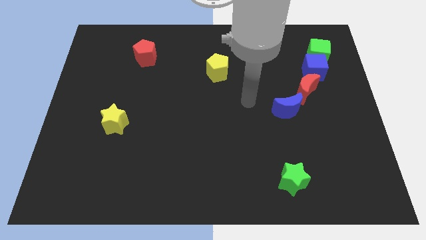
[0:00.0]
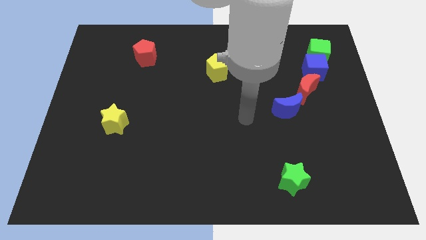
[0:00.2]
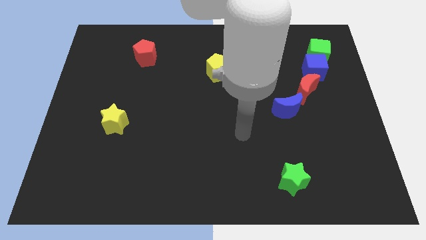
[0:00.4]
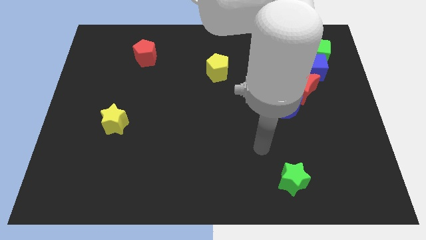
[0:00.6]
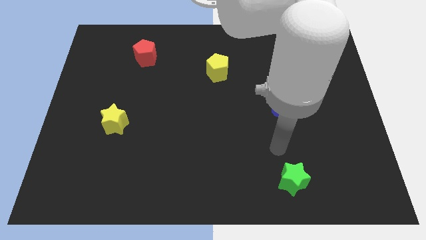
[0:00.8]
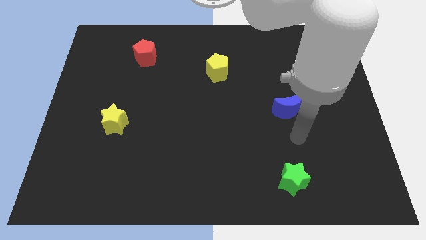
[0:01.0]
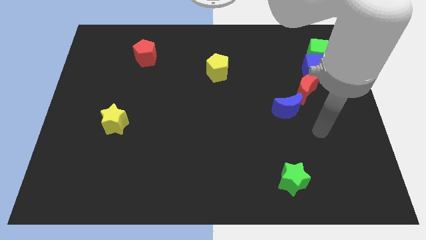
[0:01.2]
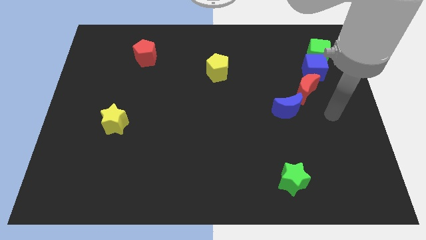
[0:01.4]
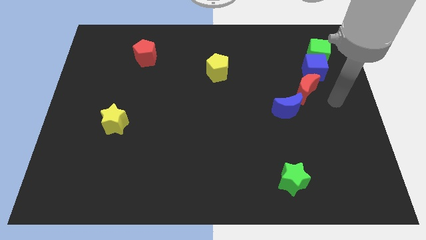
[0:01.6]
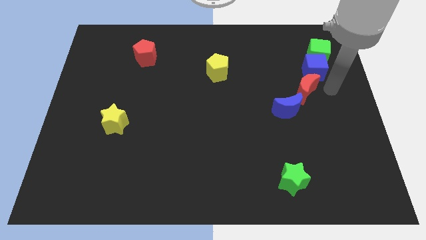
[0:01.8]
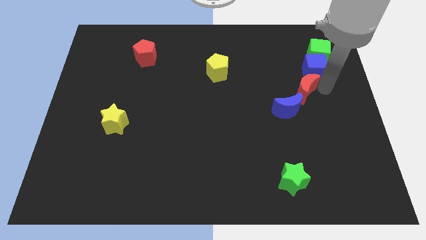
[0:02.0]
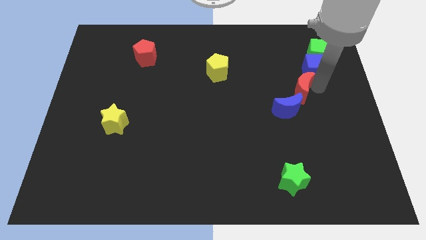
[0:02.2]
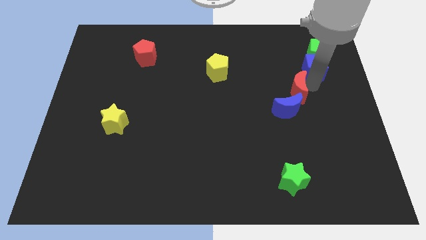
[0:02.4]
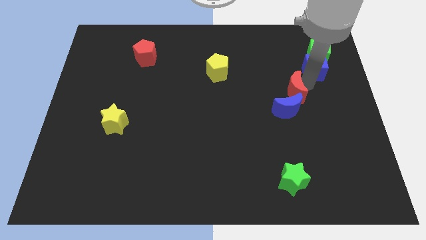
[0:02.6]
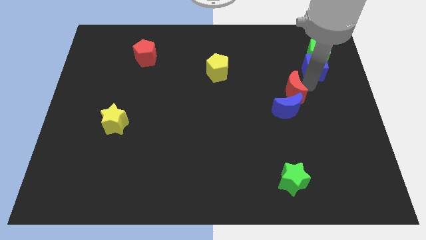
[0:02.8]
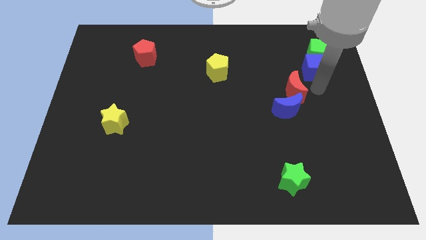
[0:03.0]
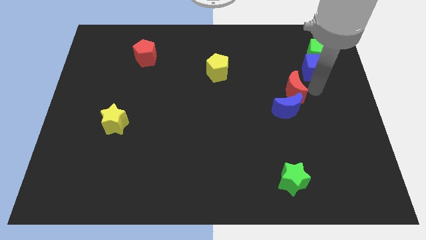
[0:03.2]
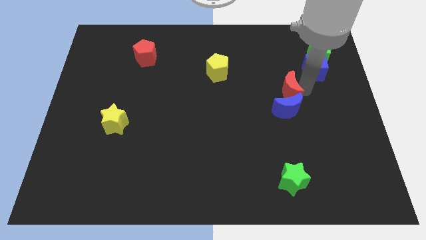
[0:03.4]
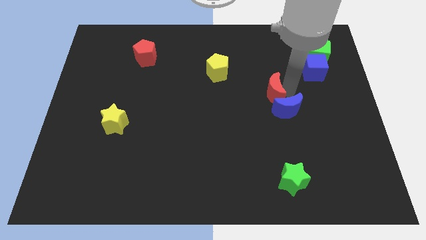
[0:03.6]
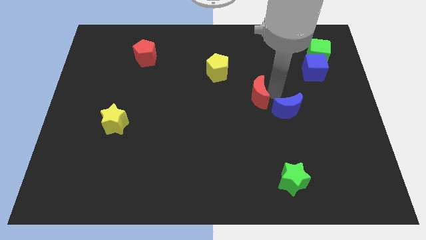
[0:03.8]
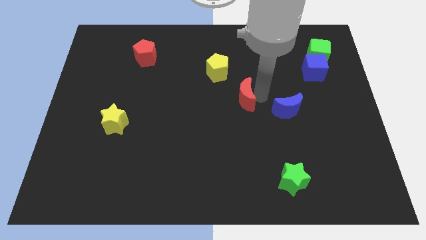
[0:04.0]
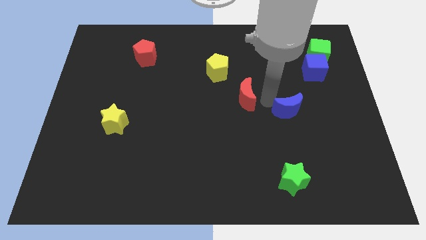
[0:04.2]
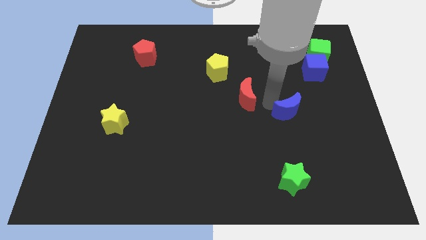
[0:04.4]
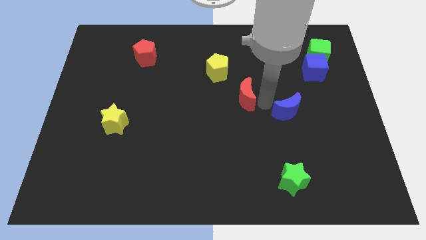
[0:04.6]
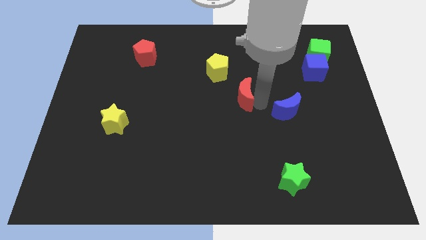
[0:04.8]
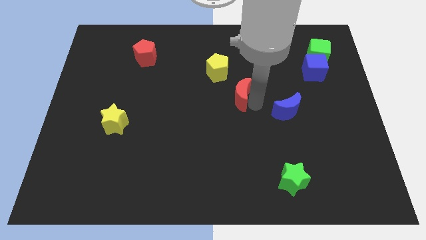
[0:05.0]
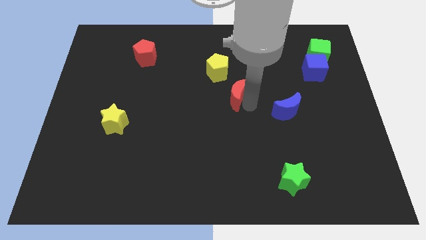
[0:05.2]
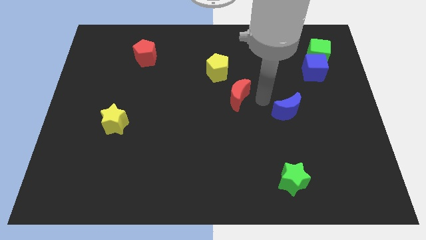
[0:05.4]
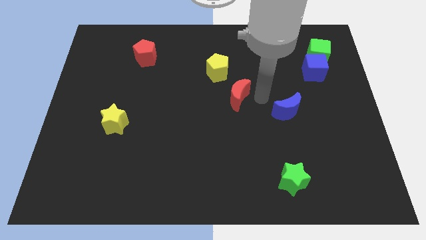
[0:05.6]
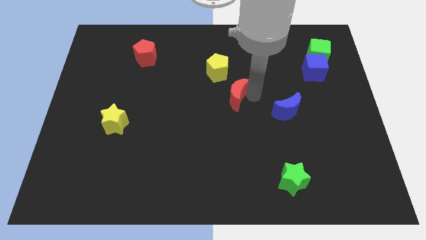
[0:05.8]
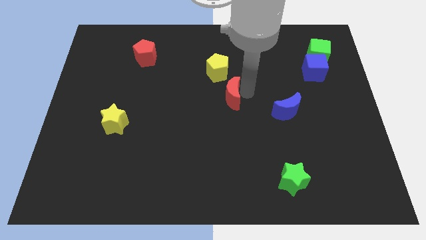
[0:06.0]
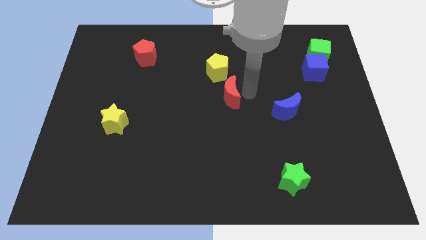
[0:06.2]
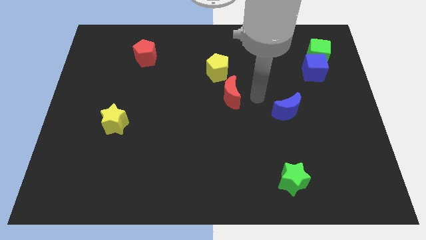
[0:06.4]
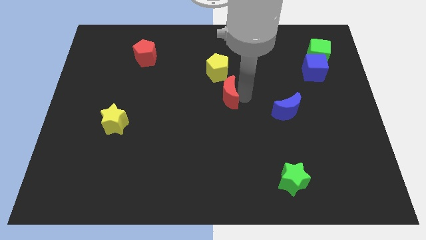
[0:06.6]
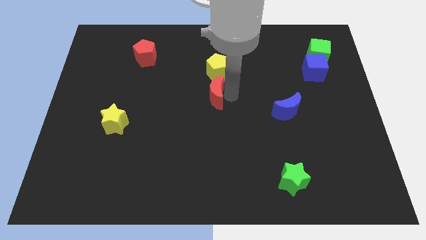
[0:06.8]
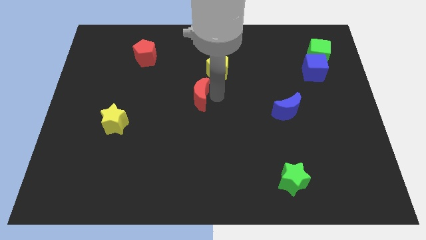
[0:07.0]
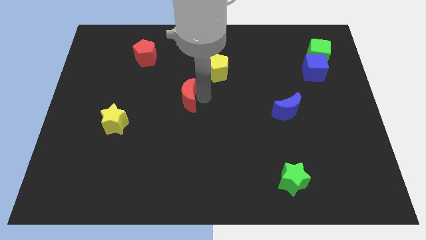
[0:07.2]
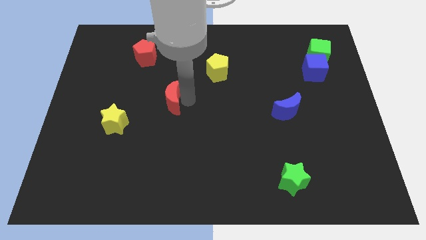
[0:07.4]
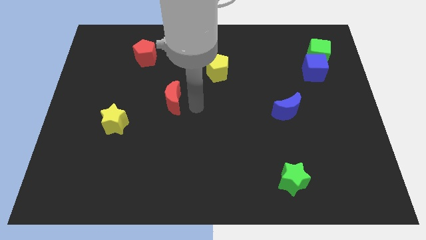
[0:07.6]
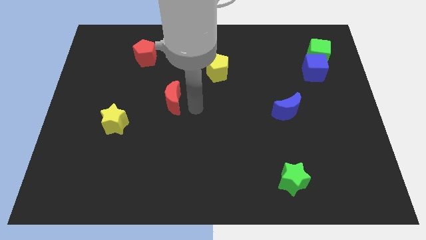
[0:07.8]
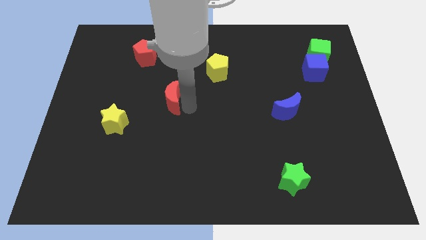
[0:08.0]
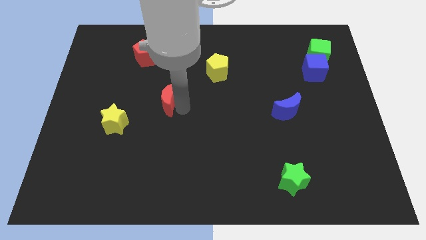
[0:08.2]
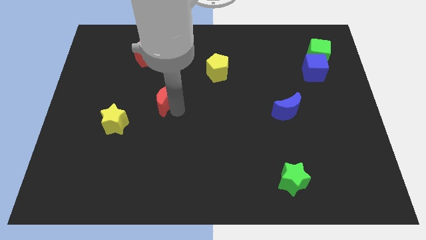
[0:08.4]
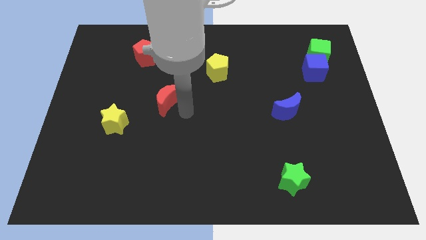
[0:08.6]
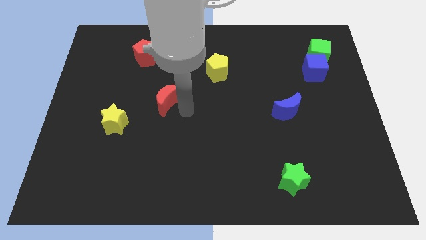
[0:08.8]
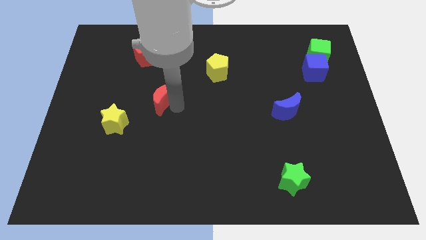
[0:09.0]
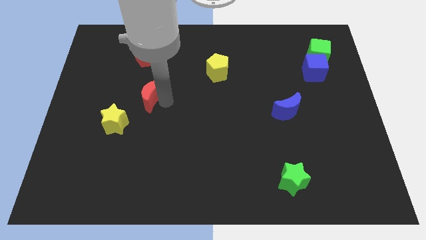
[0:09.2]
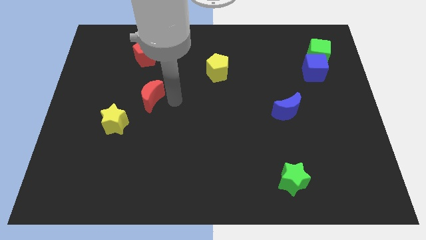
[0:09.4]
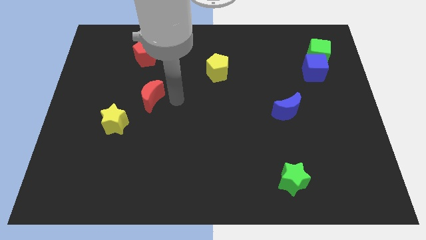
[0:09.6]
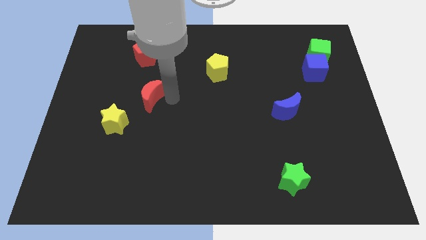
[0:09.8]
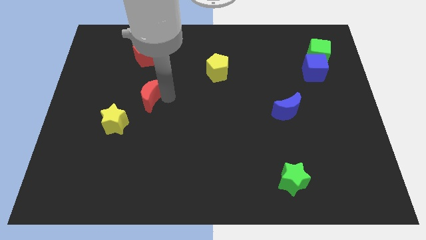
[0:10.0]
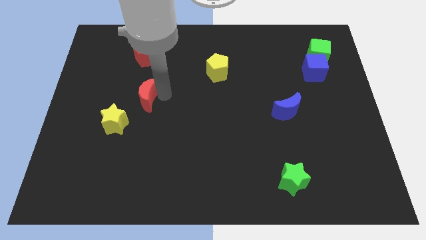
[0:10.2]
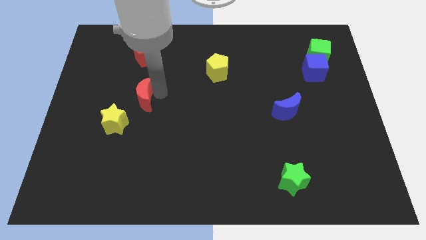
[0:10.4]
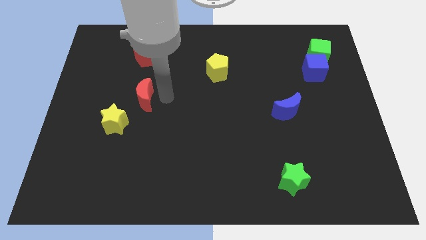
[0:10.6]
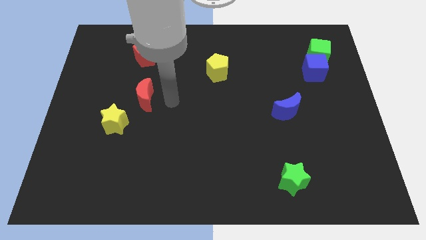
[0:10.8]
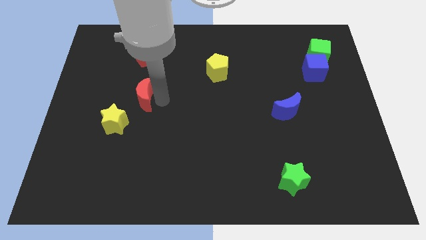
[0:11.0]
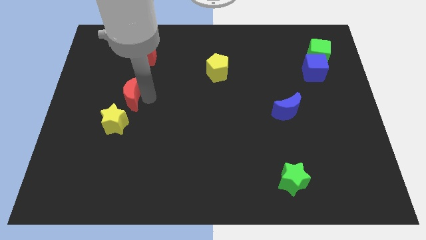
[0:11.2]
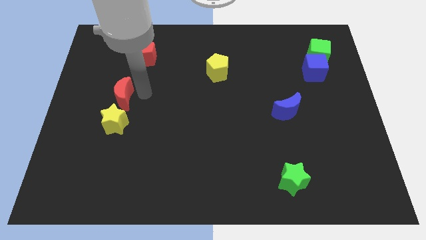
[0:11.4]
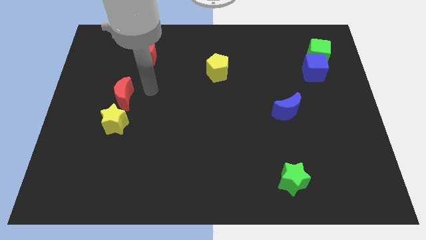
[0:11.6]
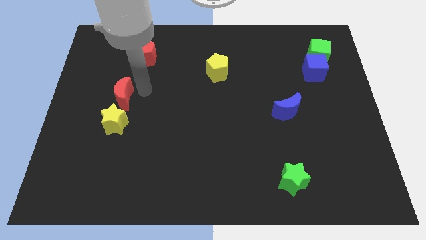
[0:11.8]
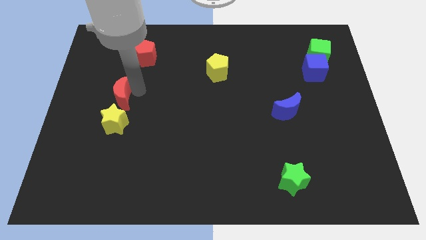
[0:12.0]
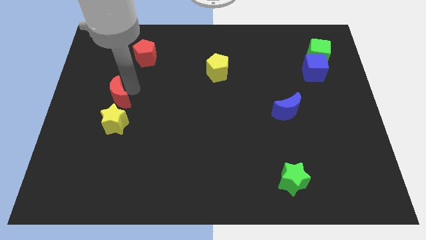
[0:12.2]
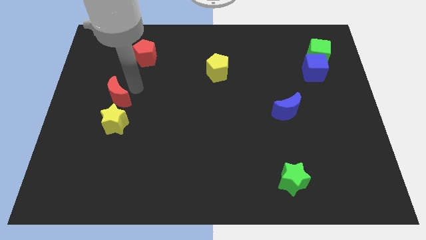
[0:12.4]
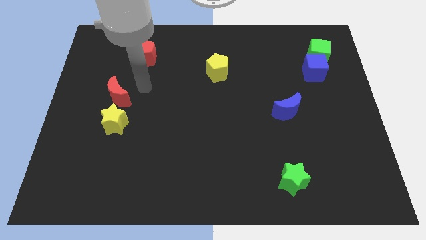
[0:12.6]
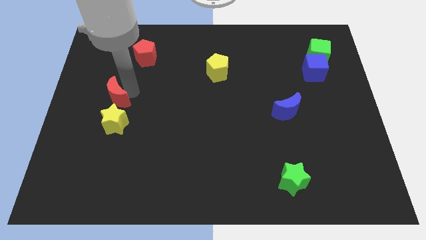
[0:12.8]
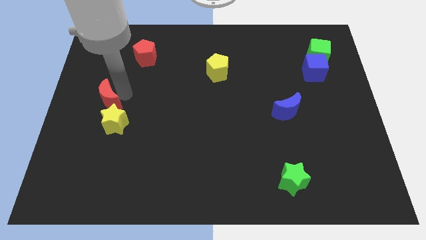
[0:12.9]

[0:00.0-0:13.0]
push the red moon to the left side
